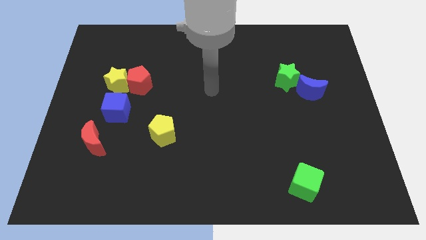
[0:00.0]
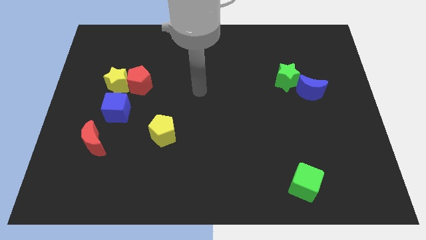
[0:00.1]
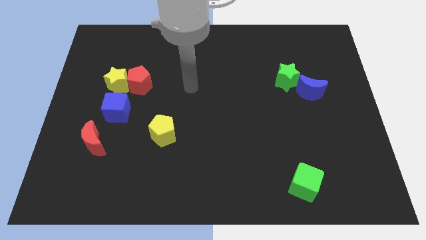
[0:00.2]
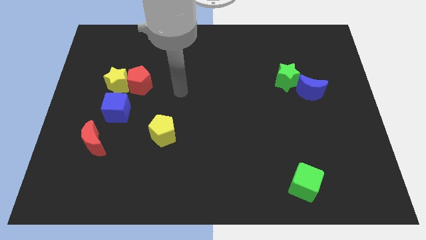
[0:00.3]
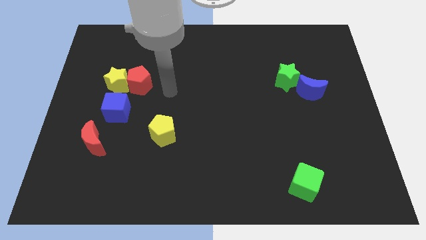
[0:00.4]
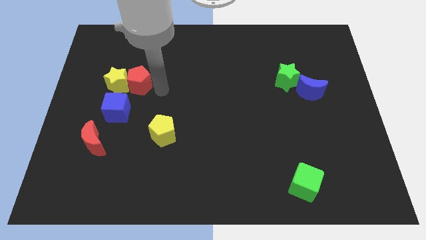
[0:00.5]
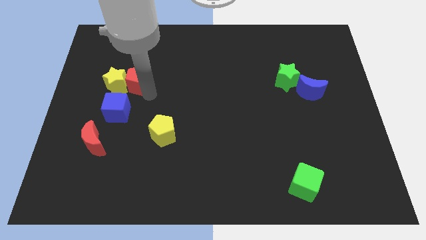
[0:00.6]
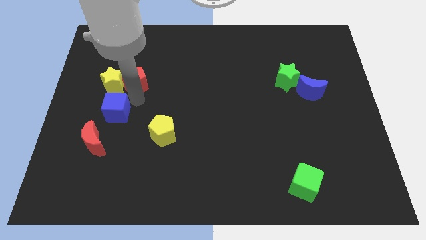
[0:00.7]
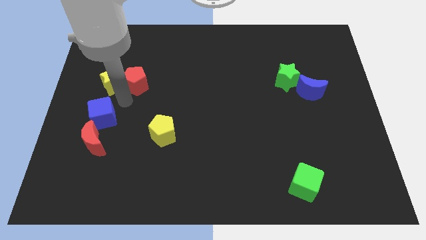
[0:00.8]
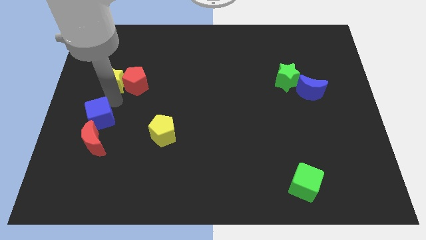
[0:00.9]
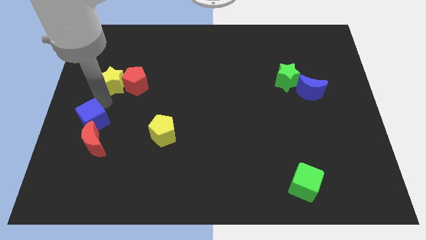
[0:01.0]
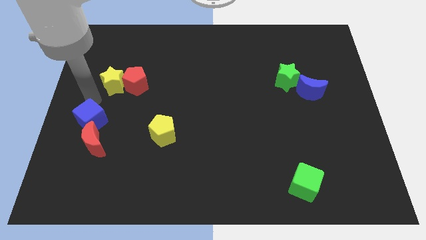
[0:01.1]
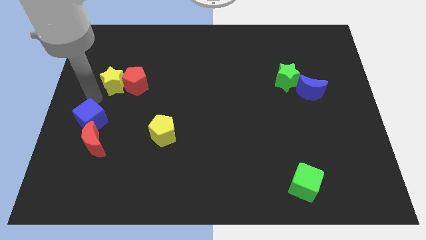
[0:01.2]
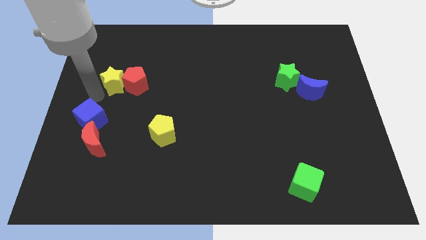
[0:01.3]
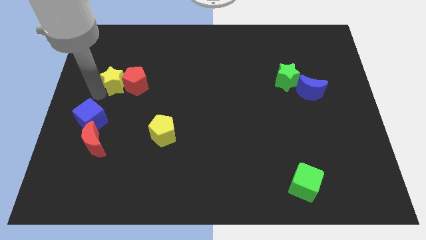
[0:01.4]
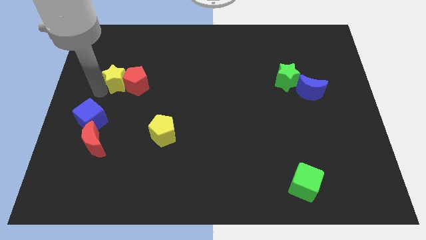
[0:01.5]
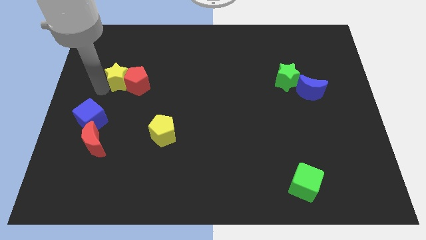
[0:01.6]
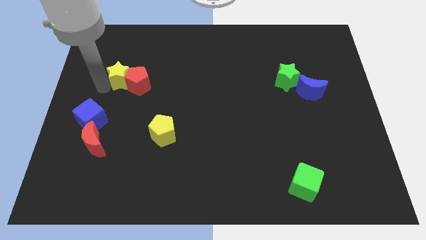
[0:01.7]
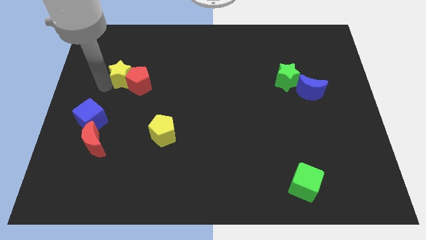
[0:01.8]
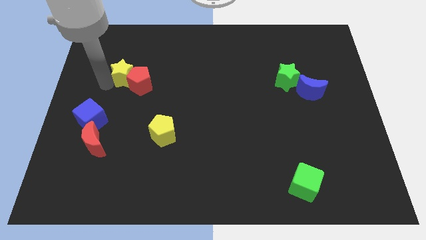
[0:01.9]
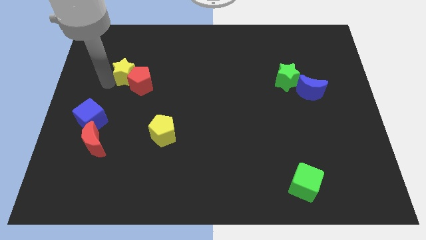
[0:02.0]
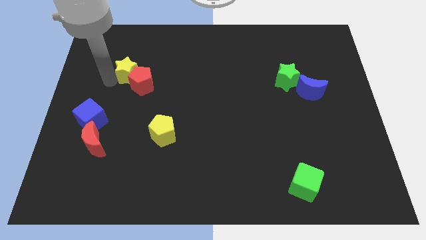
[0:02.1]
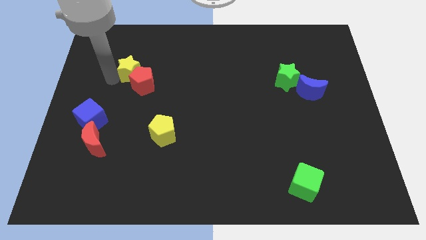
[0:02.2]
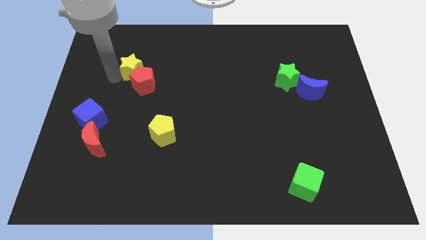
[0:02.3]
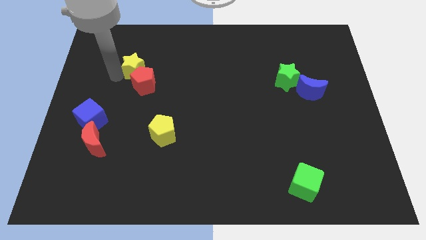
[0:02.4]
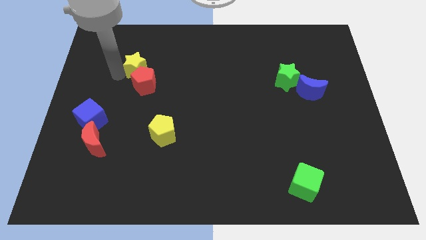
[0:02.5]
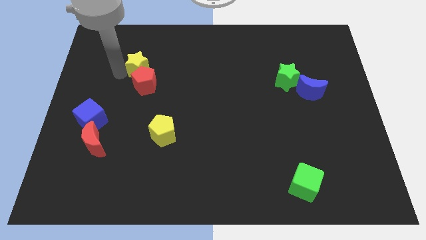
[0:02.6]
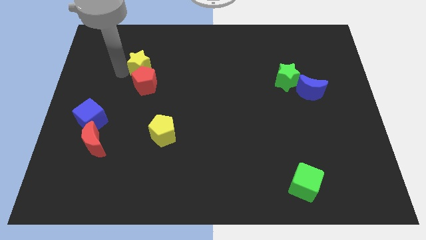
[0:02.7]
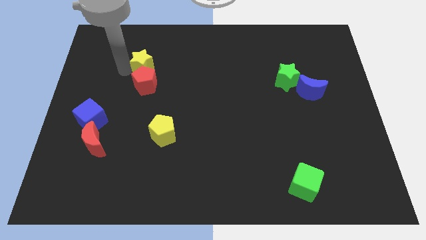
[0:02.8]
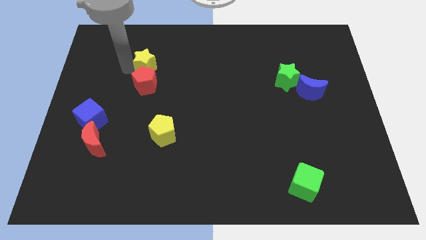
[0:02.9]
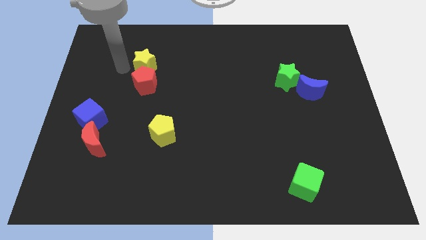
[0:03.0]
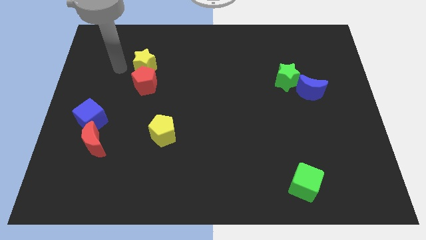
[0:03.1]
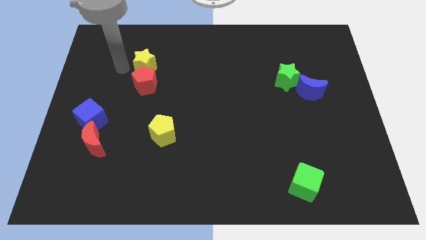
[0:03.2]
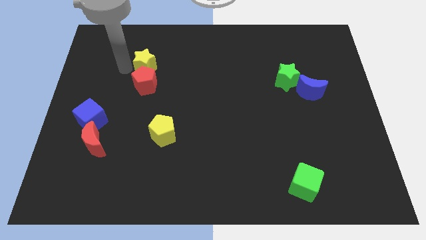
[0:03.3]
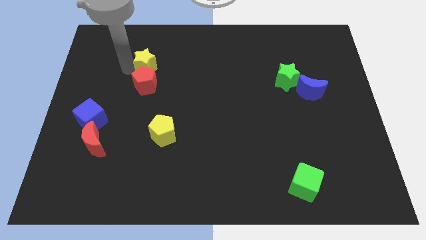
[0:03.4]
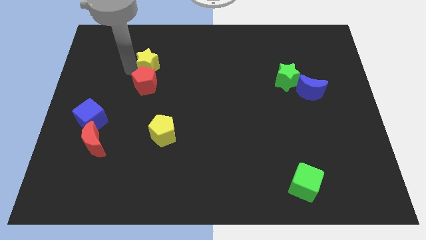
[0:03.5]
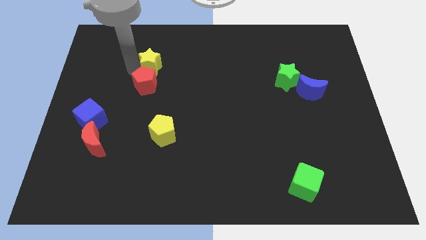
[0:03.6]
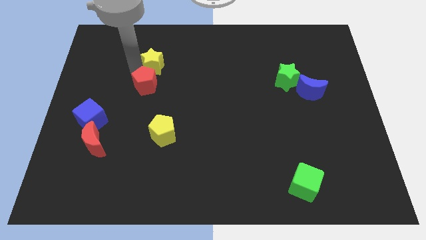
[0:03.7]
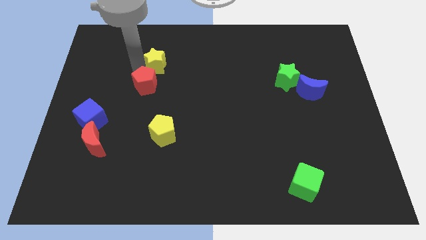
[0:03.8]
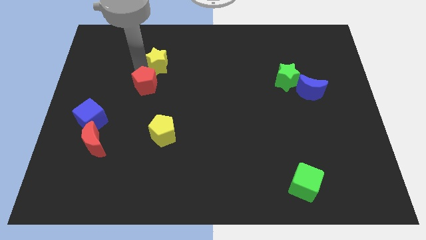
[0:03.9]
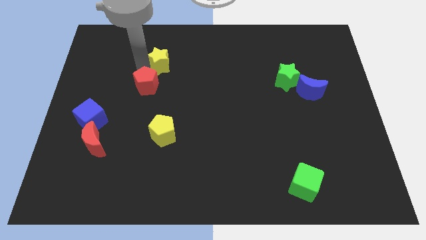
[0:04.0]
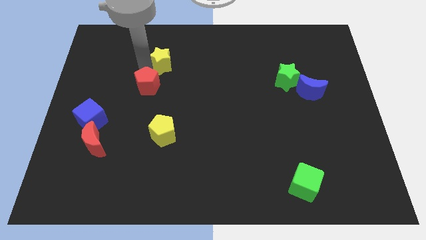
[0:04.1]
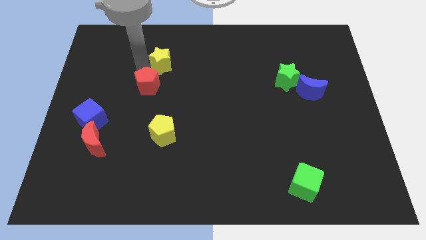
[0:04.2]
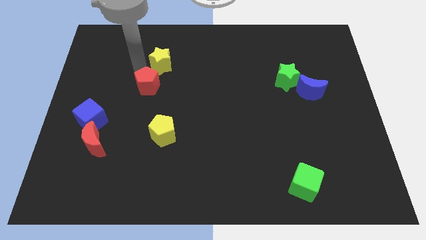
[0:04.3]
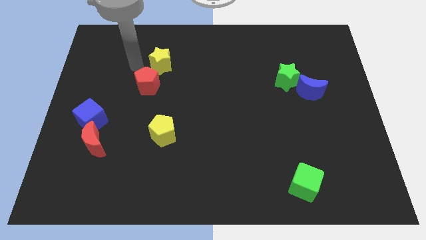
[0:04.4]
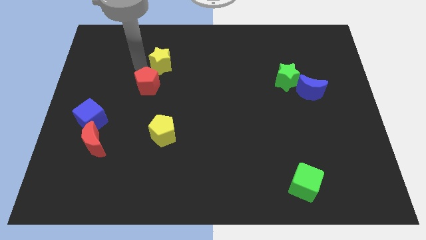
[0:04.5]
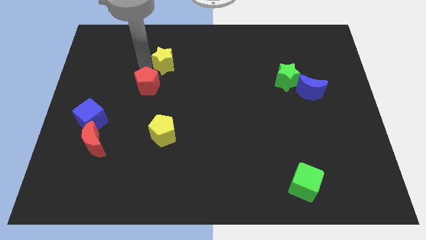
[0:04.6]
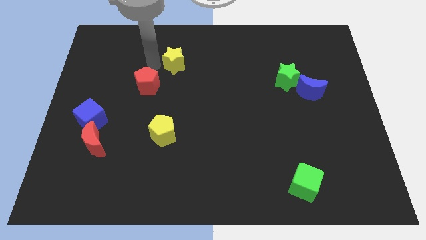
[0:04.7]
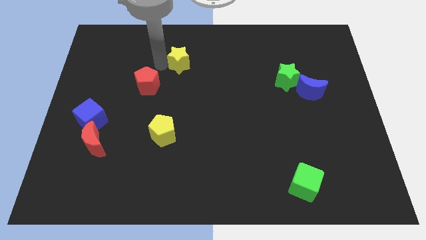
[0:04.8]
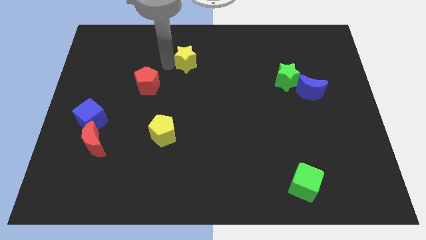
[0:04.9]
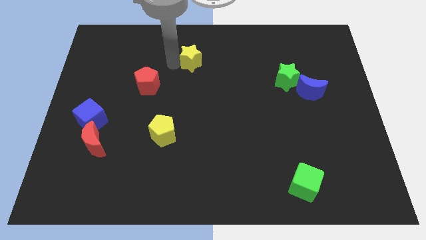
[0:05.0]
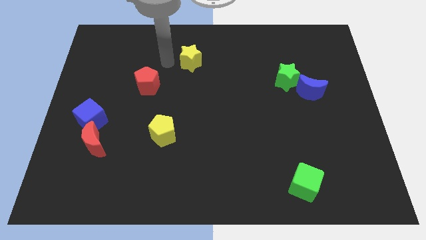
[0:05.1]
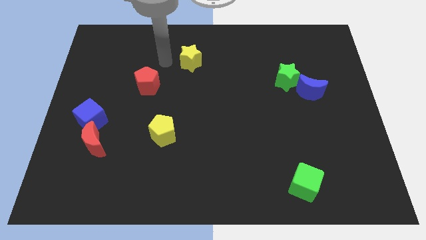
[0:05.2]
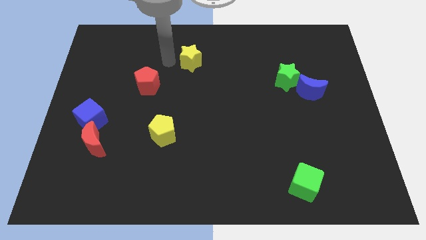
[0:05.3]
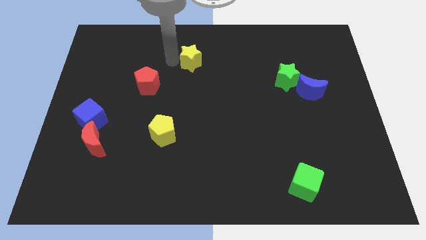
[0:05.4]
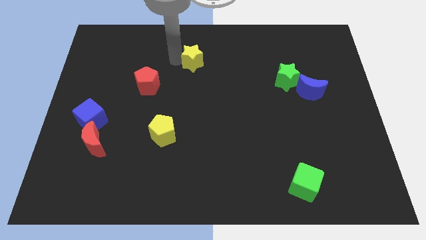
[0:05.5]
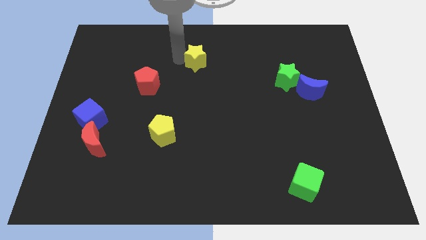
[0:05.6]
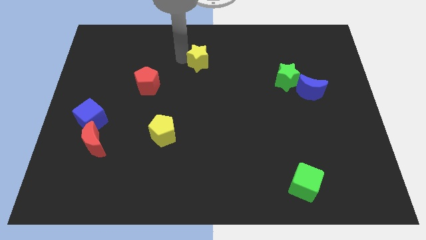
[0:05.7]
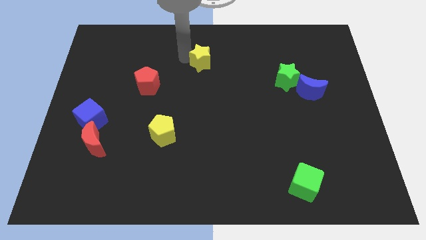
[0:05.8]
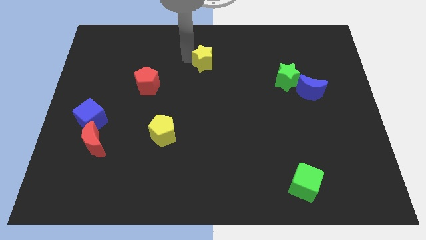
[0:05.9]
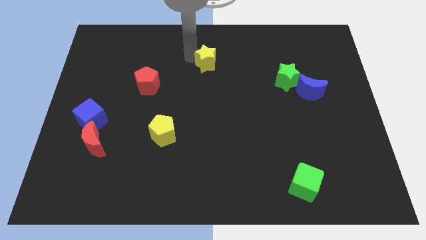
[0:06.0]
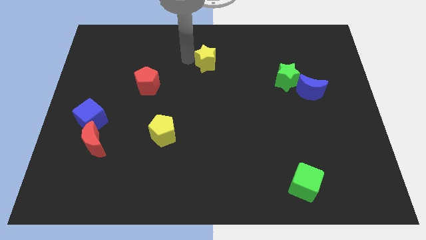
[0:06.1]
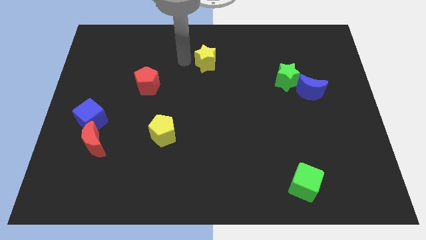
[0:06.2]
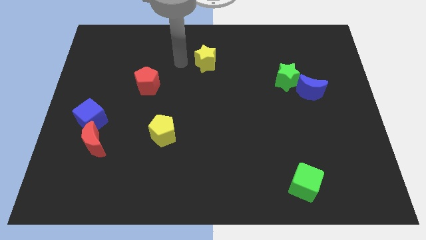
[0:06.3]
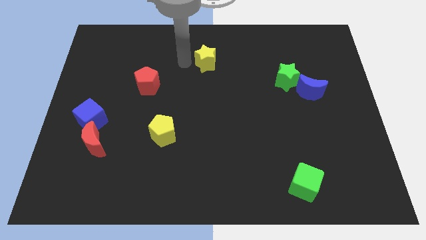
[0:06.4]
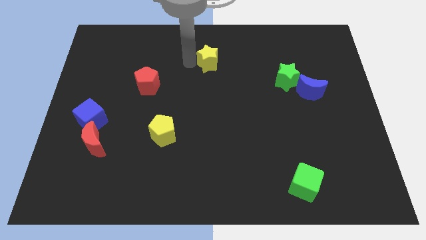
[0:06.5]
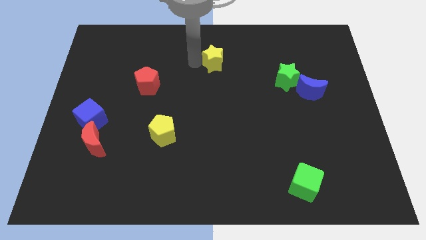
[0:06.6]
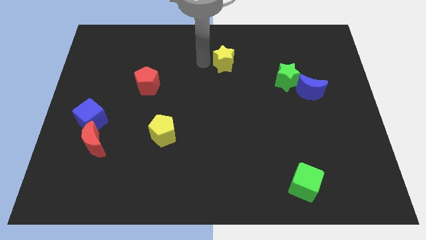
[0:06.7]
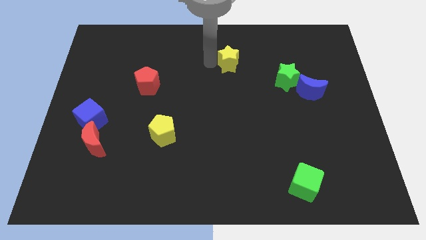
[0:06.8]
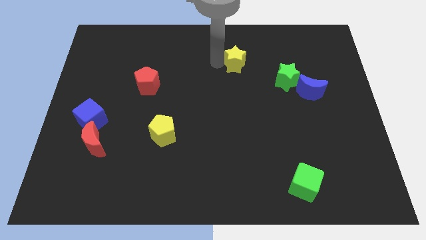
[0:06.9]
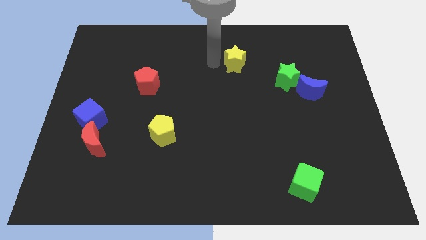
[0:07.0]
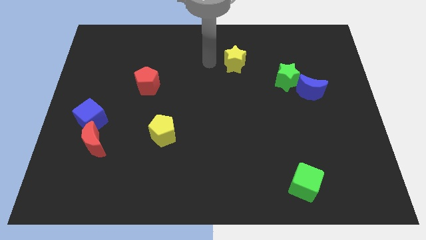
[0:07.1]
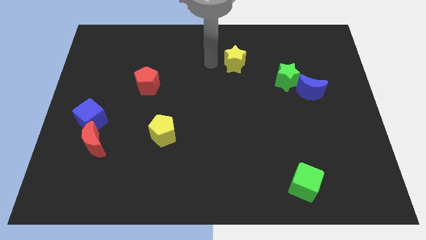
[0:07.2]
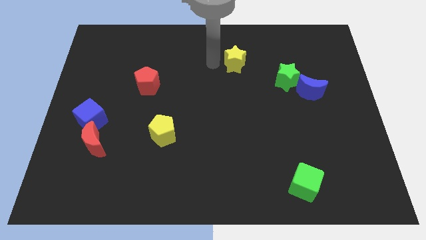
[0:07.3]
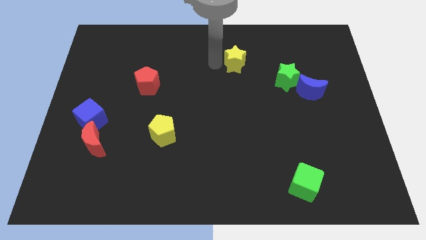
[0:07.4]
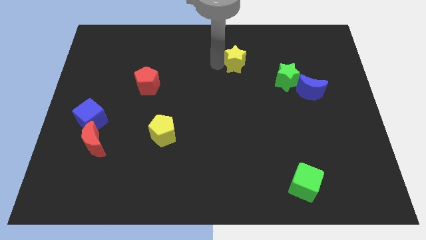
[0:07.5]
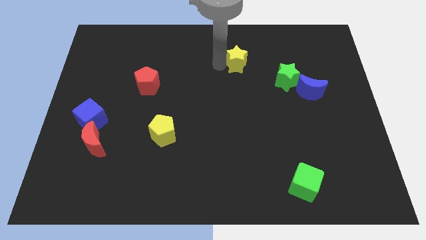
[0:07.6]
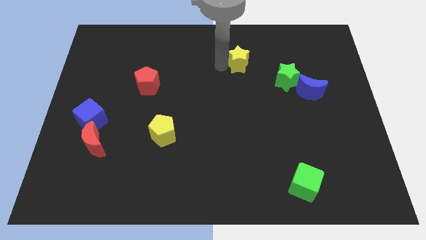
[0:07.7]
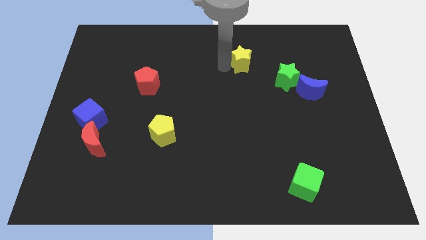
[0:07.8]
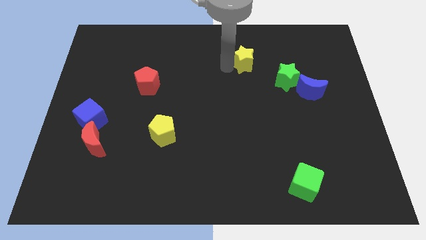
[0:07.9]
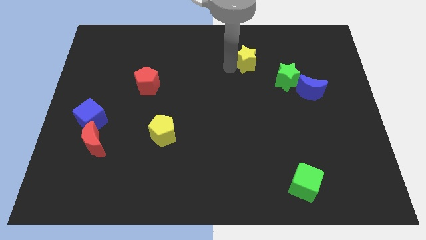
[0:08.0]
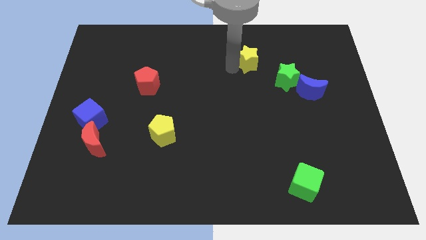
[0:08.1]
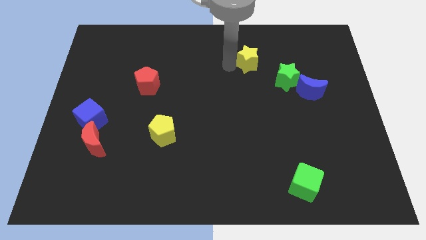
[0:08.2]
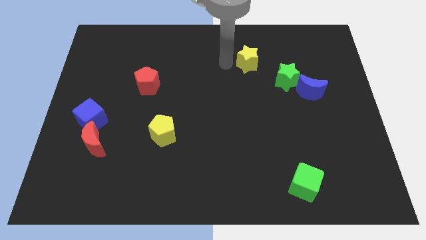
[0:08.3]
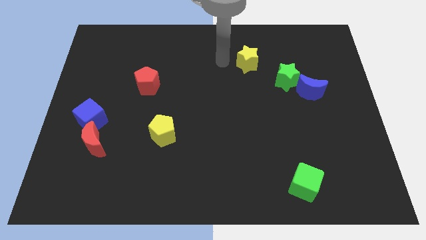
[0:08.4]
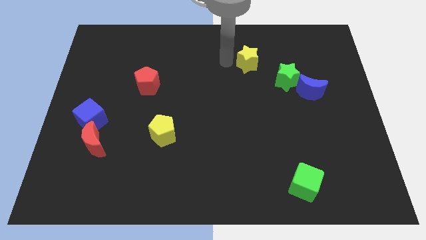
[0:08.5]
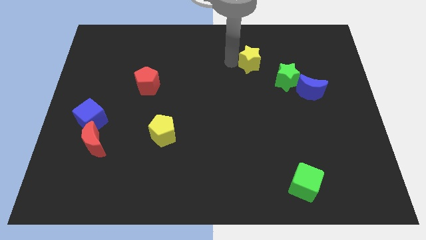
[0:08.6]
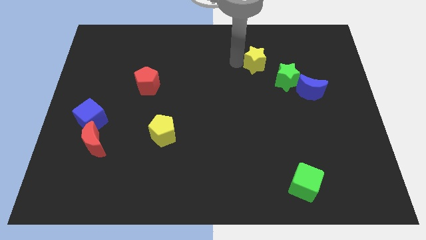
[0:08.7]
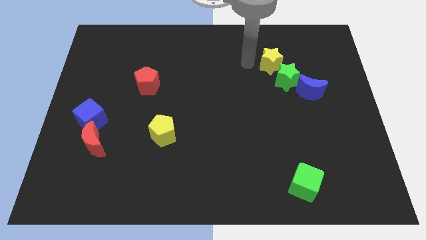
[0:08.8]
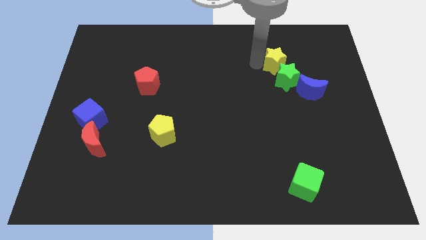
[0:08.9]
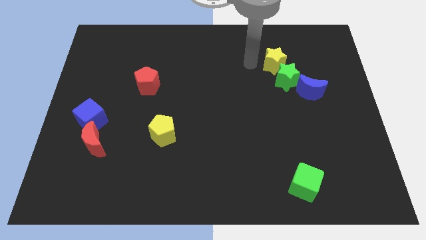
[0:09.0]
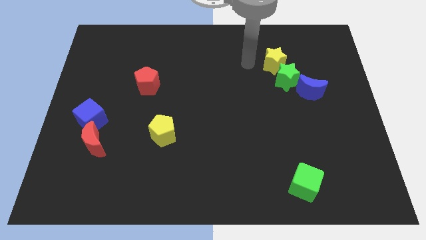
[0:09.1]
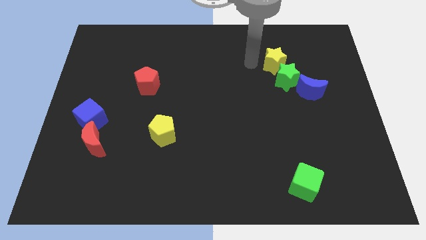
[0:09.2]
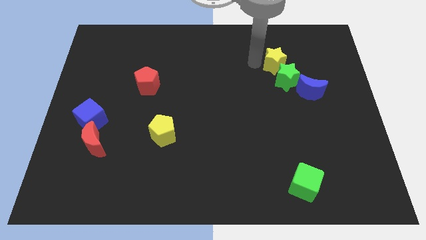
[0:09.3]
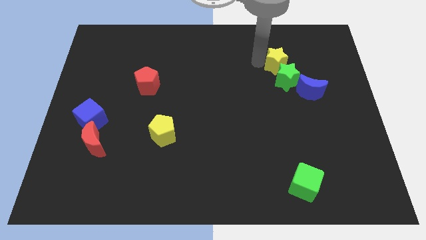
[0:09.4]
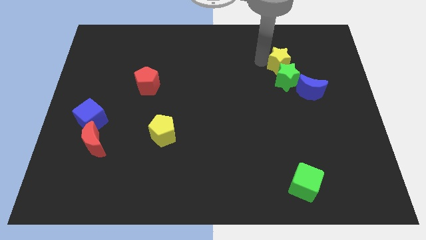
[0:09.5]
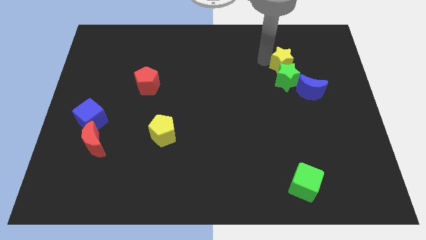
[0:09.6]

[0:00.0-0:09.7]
put the yellow star to the top right of the green star
